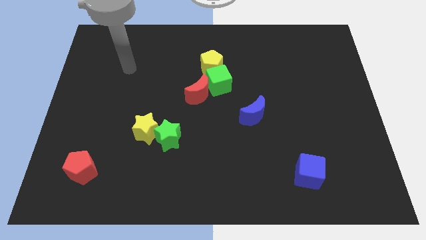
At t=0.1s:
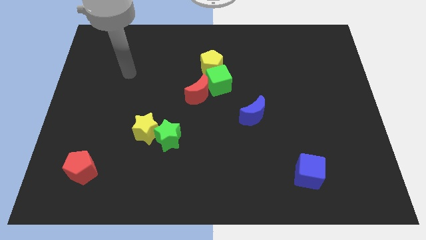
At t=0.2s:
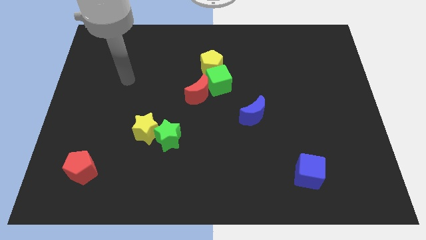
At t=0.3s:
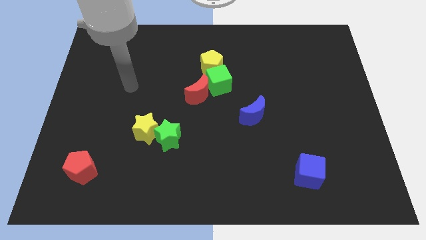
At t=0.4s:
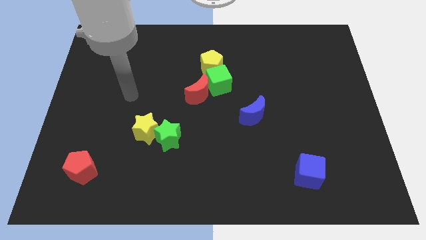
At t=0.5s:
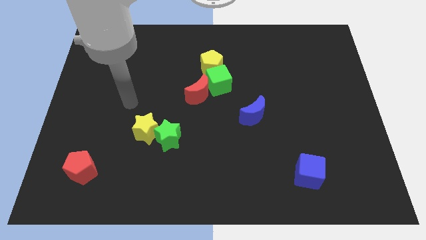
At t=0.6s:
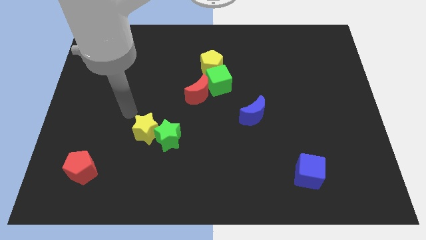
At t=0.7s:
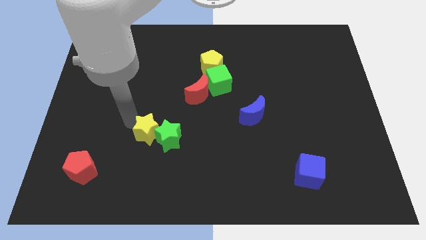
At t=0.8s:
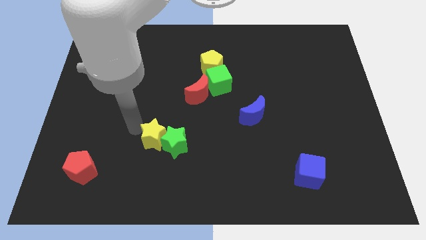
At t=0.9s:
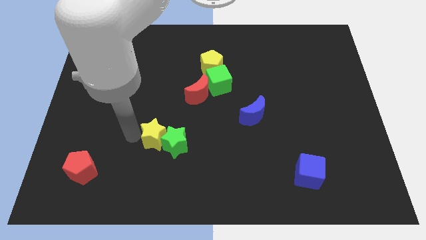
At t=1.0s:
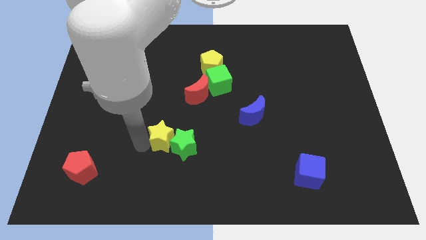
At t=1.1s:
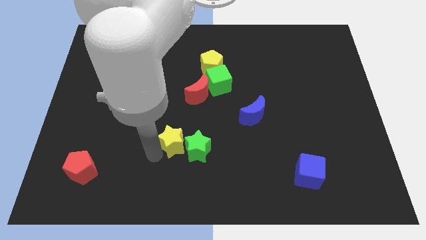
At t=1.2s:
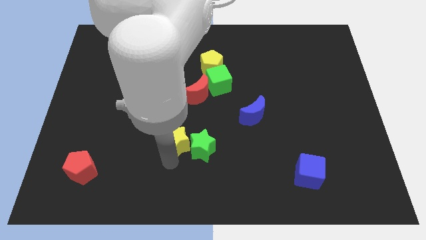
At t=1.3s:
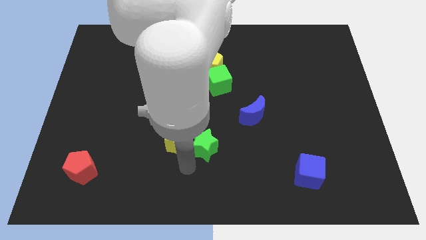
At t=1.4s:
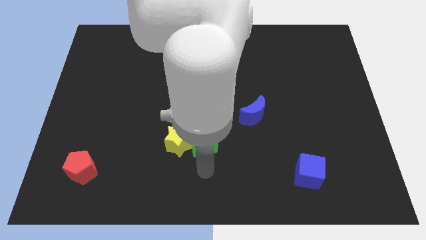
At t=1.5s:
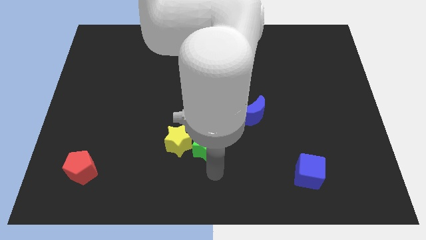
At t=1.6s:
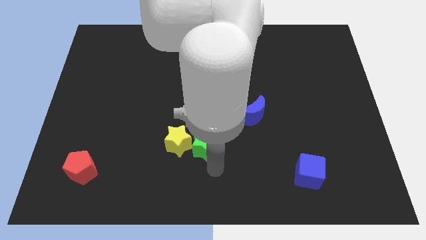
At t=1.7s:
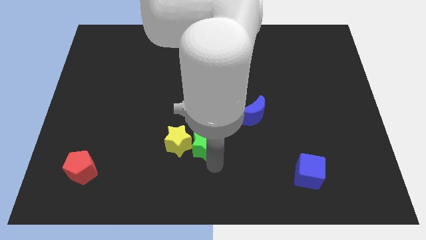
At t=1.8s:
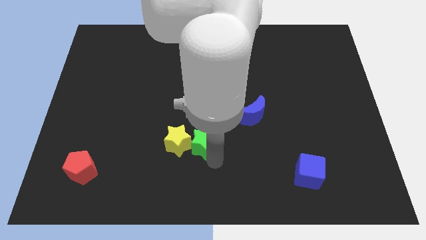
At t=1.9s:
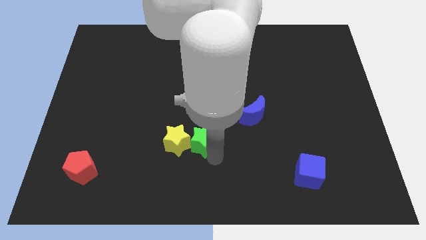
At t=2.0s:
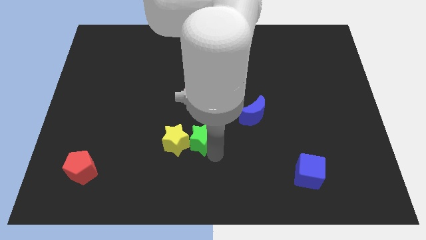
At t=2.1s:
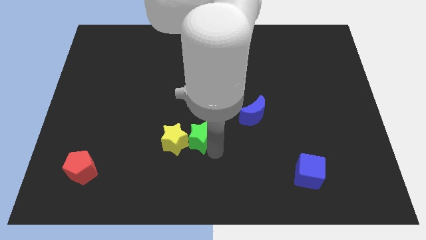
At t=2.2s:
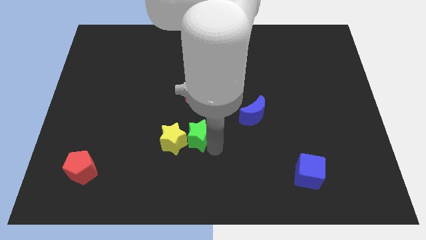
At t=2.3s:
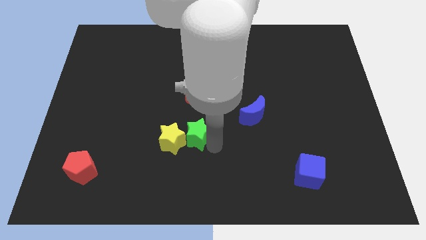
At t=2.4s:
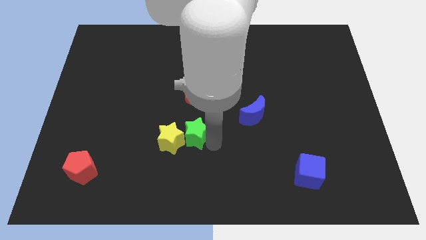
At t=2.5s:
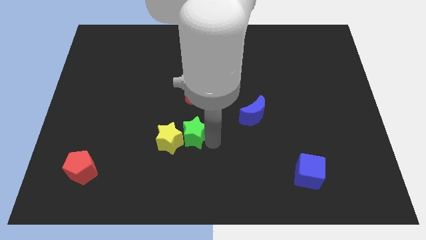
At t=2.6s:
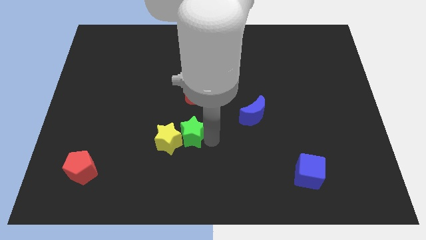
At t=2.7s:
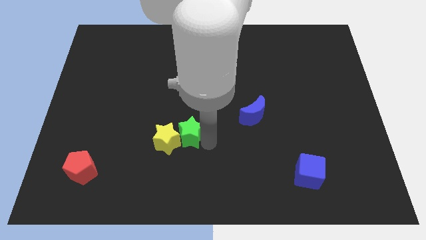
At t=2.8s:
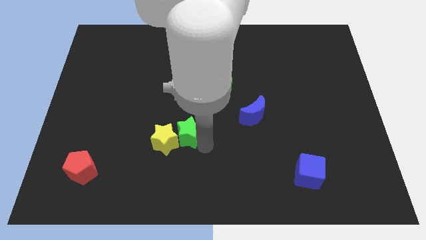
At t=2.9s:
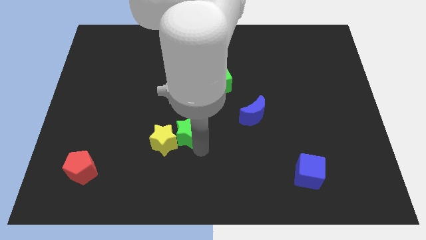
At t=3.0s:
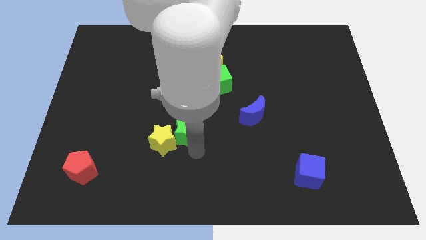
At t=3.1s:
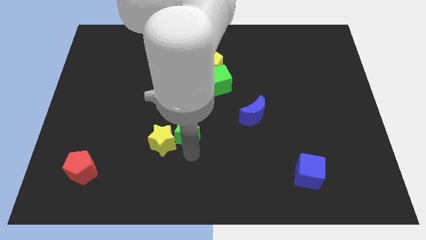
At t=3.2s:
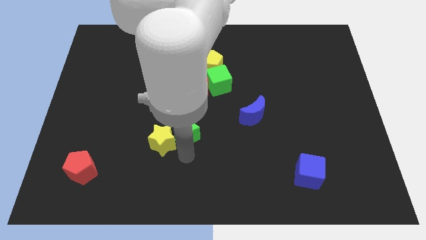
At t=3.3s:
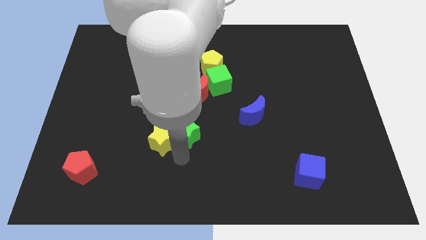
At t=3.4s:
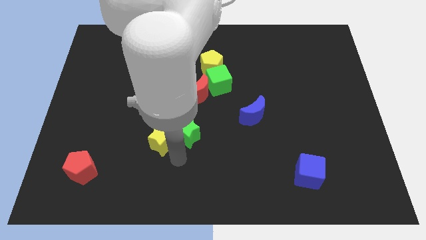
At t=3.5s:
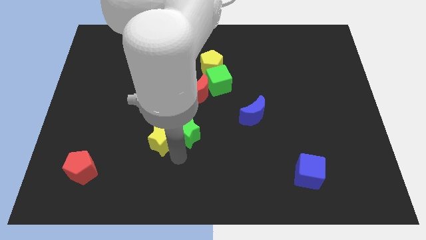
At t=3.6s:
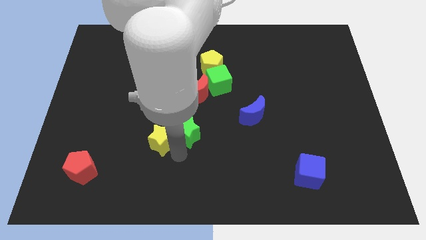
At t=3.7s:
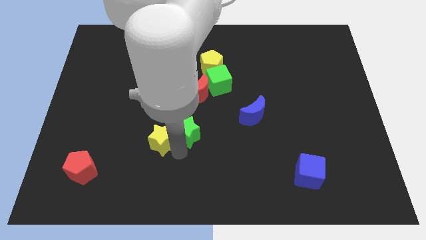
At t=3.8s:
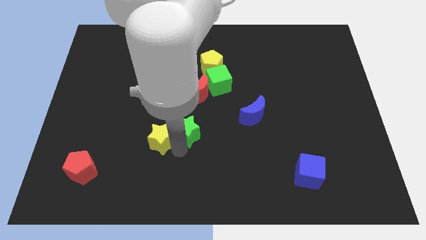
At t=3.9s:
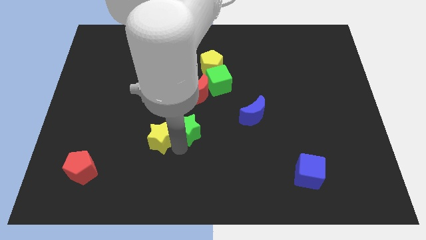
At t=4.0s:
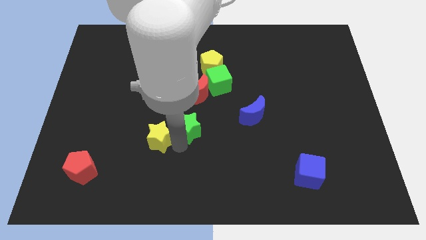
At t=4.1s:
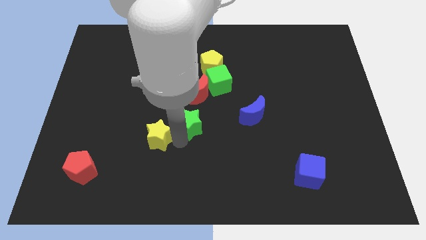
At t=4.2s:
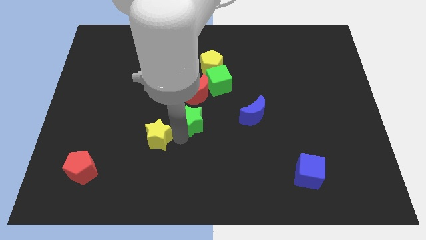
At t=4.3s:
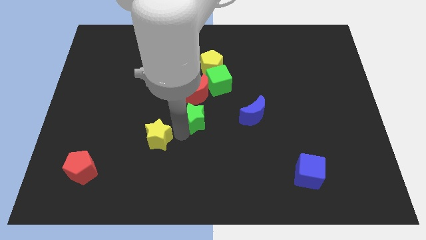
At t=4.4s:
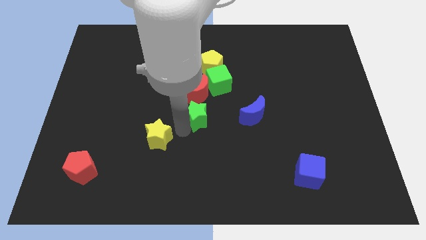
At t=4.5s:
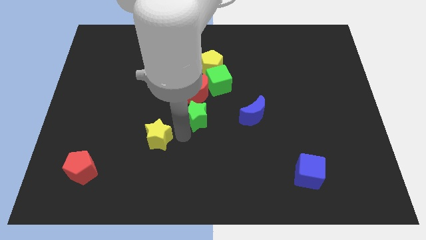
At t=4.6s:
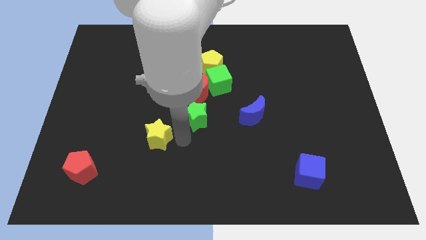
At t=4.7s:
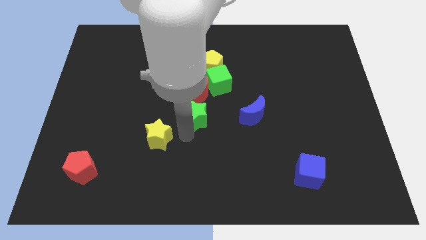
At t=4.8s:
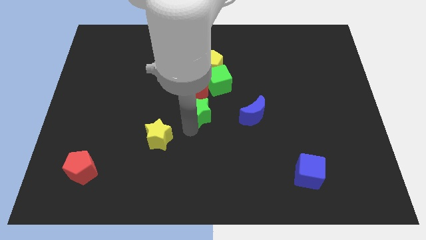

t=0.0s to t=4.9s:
put the green star below the yellow pentagon

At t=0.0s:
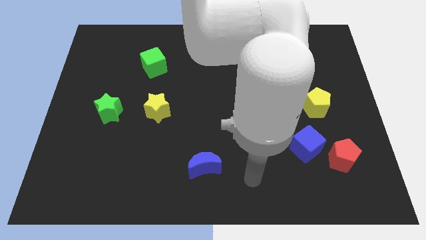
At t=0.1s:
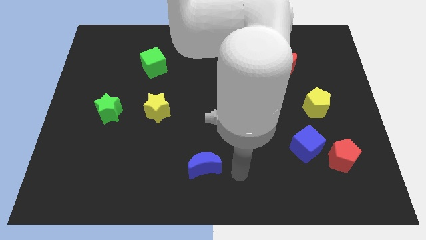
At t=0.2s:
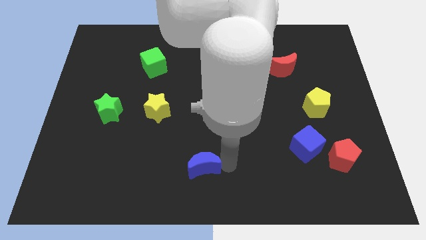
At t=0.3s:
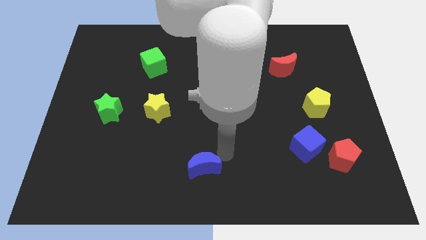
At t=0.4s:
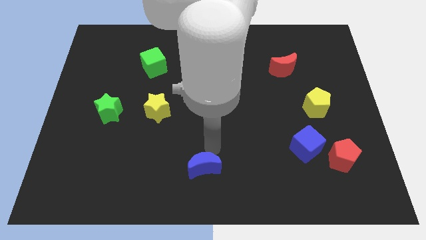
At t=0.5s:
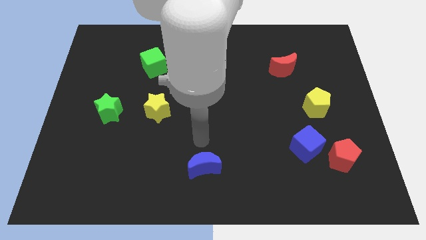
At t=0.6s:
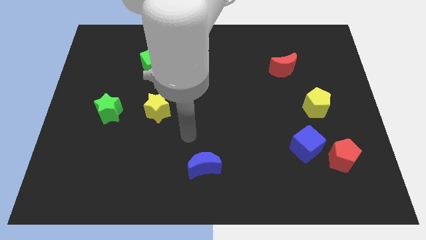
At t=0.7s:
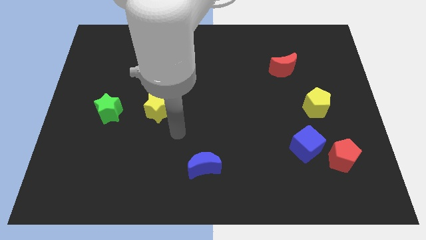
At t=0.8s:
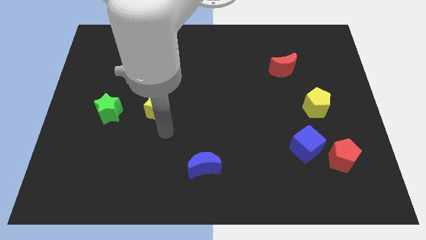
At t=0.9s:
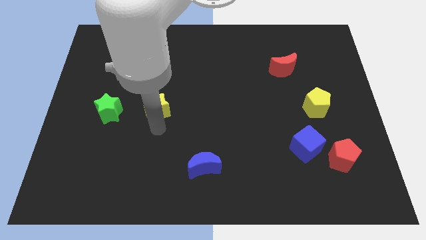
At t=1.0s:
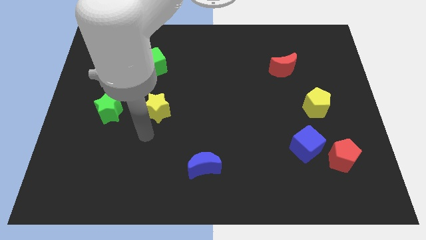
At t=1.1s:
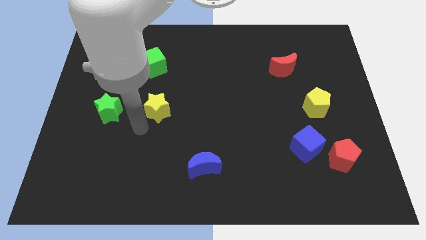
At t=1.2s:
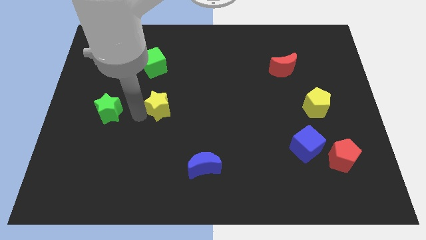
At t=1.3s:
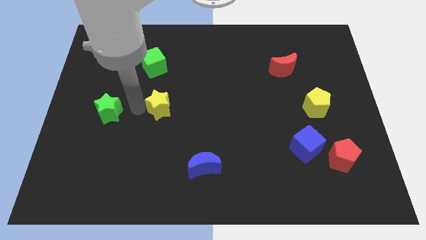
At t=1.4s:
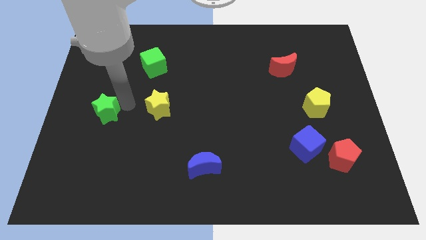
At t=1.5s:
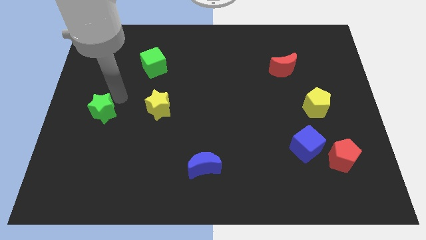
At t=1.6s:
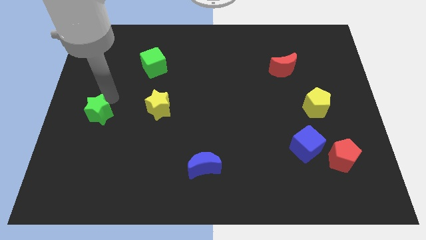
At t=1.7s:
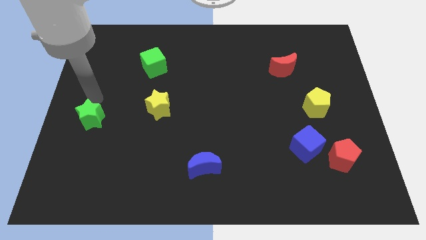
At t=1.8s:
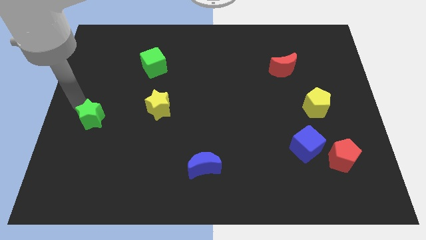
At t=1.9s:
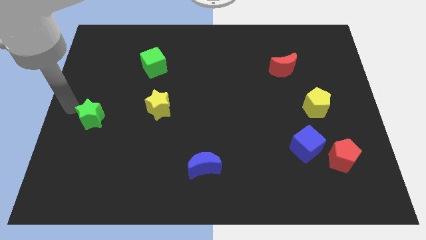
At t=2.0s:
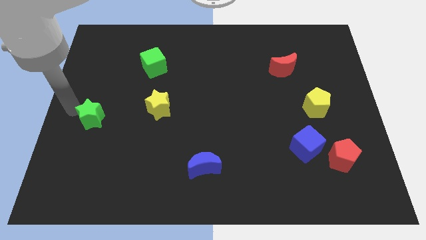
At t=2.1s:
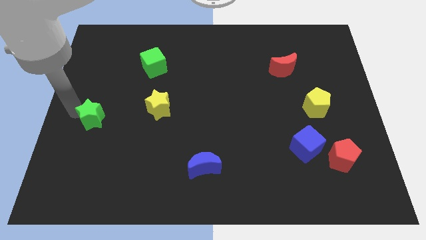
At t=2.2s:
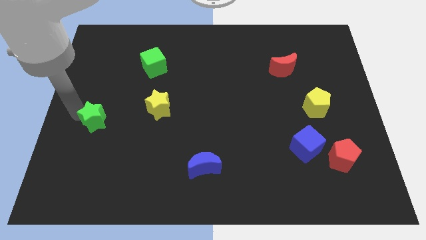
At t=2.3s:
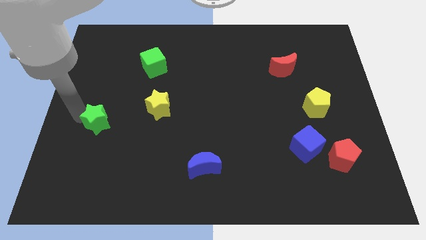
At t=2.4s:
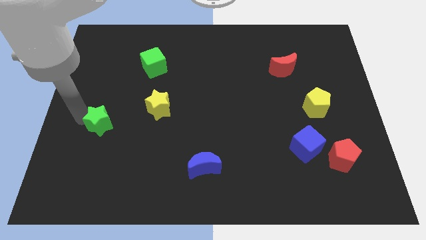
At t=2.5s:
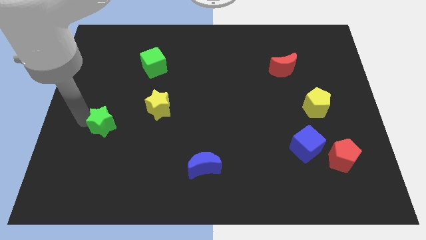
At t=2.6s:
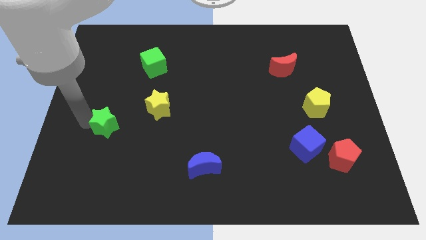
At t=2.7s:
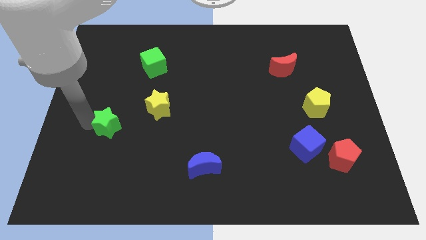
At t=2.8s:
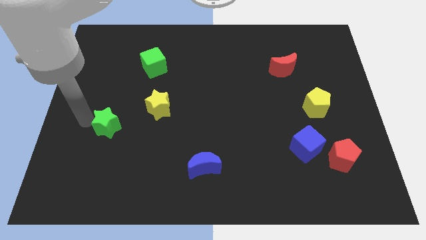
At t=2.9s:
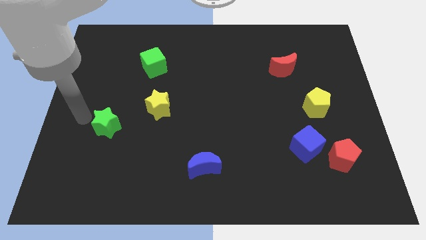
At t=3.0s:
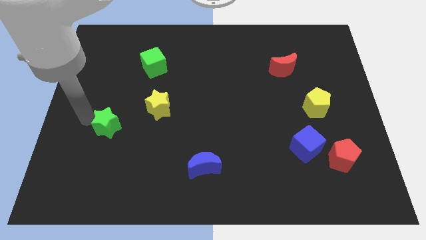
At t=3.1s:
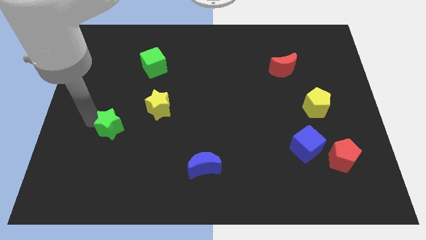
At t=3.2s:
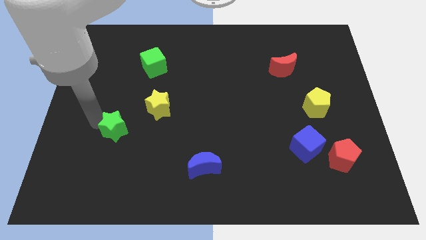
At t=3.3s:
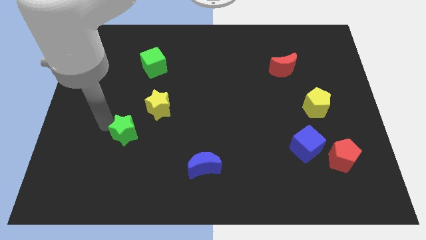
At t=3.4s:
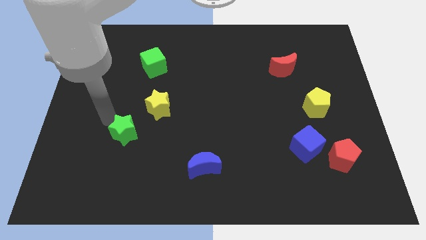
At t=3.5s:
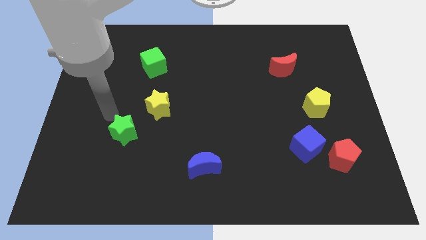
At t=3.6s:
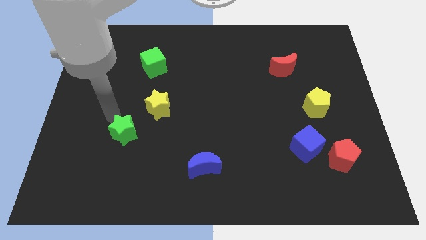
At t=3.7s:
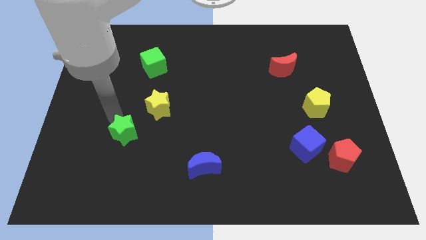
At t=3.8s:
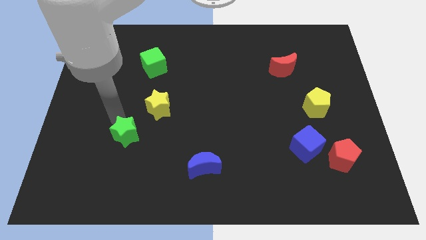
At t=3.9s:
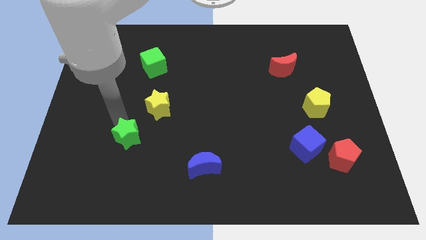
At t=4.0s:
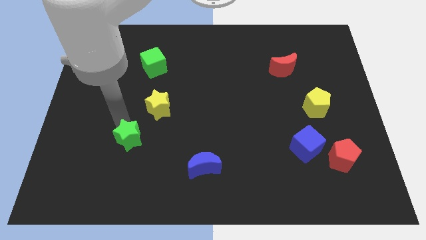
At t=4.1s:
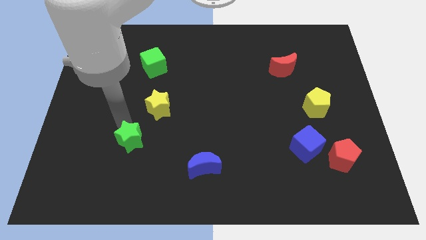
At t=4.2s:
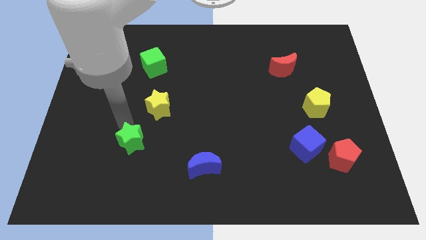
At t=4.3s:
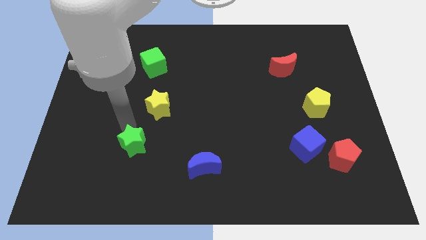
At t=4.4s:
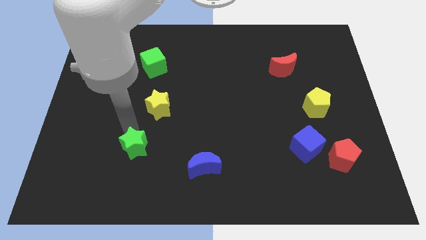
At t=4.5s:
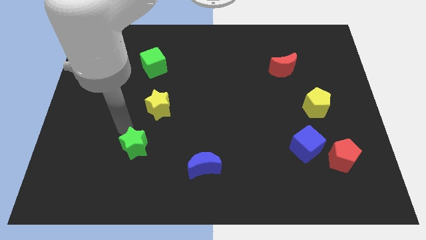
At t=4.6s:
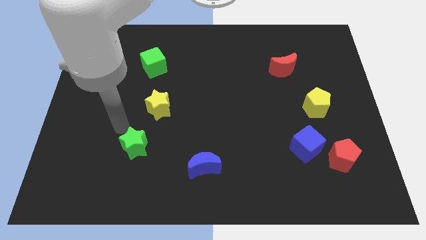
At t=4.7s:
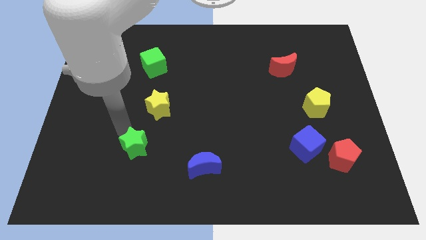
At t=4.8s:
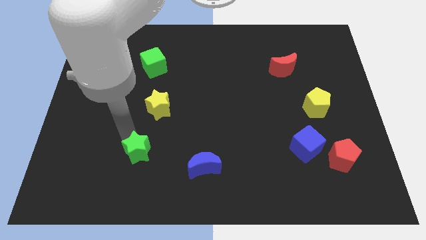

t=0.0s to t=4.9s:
move the green star left of the blue moon
